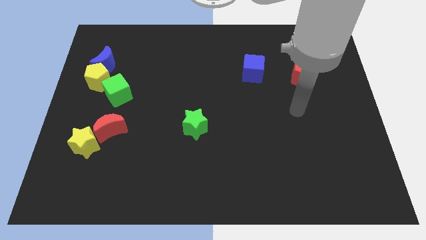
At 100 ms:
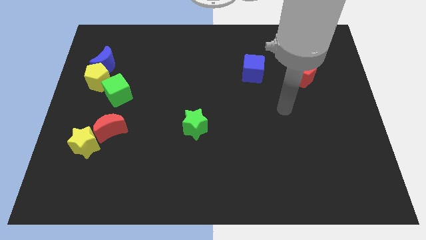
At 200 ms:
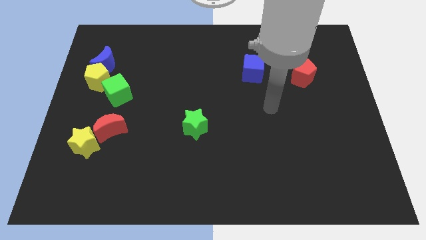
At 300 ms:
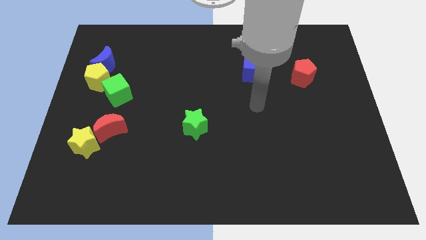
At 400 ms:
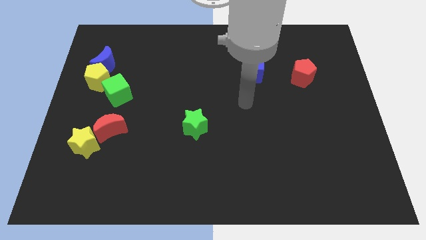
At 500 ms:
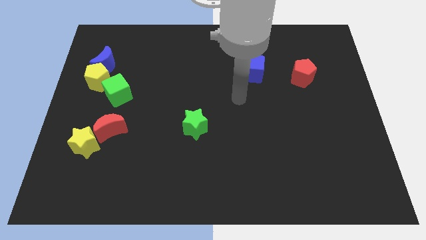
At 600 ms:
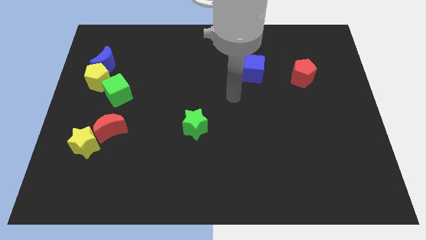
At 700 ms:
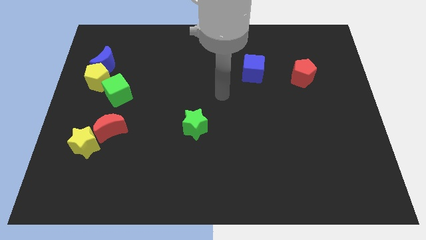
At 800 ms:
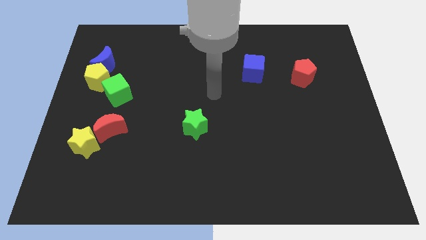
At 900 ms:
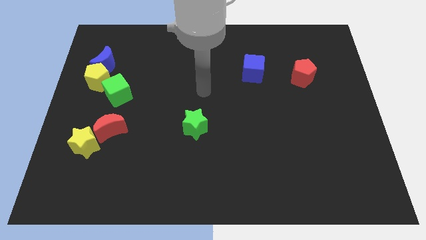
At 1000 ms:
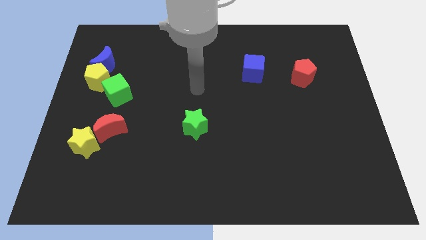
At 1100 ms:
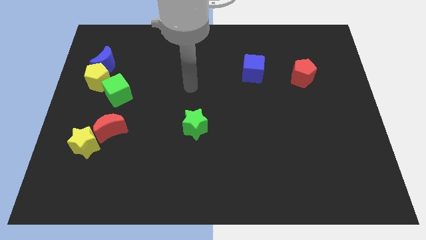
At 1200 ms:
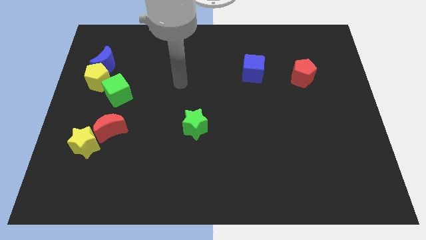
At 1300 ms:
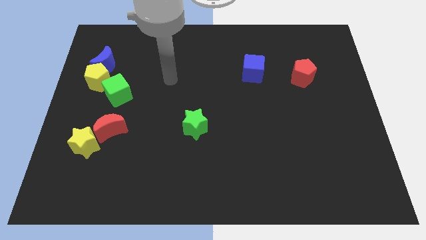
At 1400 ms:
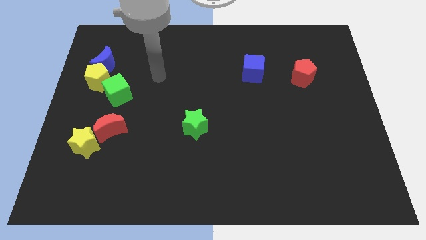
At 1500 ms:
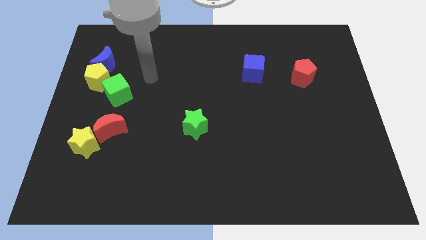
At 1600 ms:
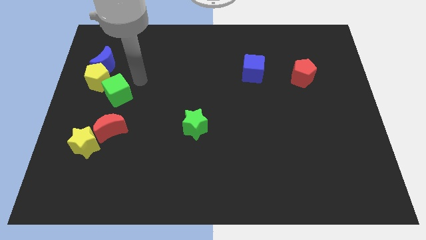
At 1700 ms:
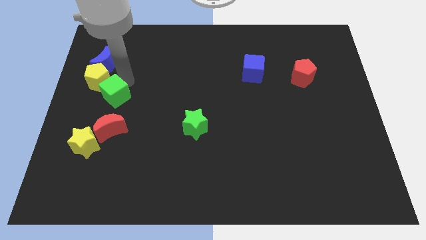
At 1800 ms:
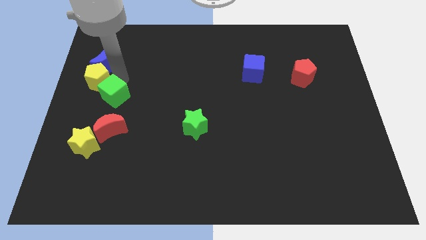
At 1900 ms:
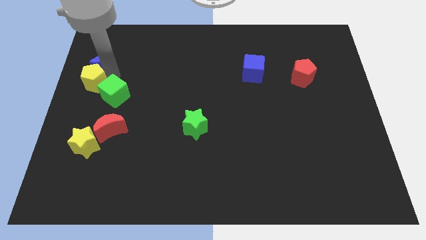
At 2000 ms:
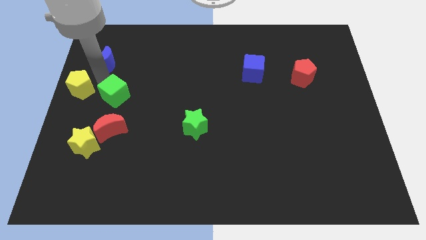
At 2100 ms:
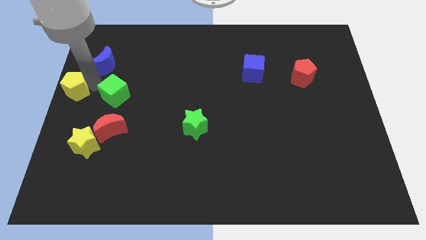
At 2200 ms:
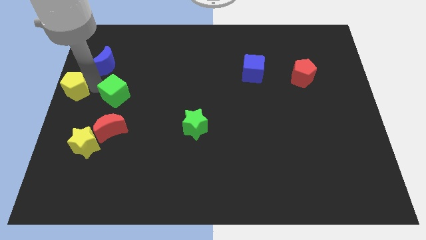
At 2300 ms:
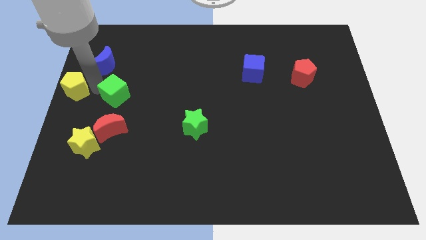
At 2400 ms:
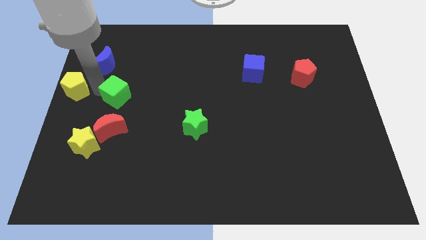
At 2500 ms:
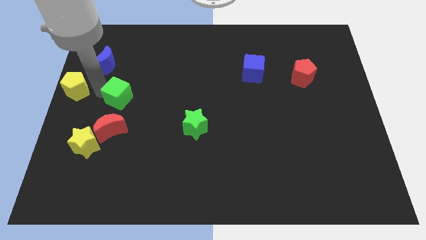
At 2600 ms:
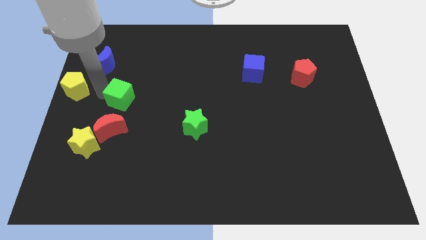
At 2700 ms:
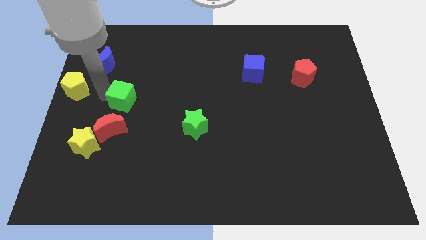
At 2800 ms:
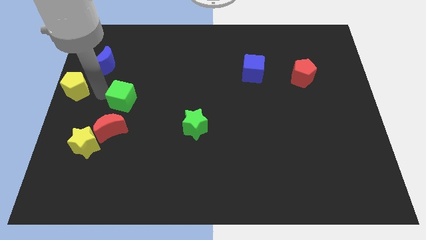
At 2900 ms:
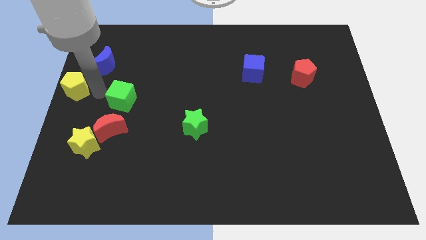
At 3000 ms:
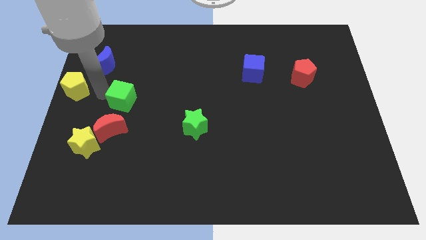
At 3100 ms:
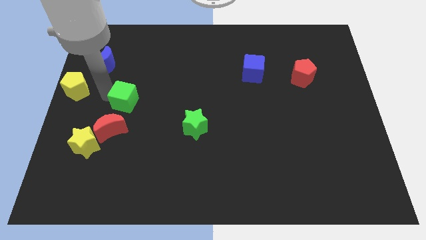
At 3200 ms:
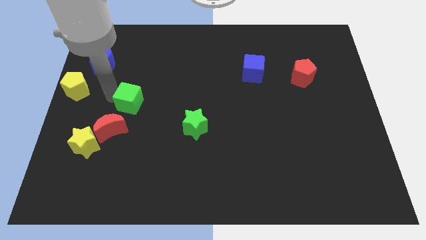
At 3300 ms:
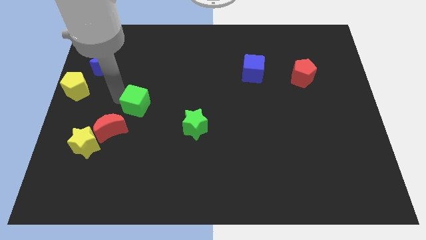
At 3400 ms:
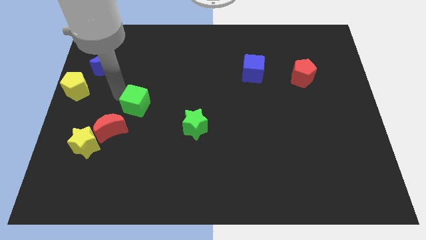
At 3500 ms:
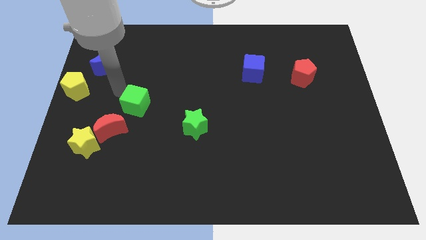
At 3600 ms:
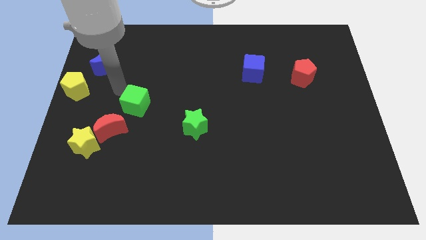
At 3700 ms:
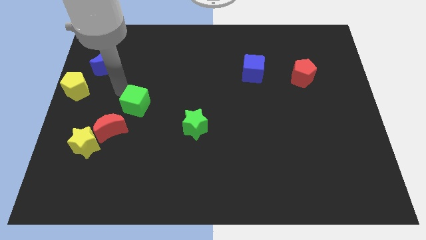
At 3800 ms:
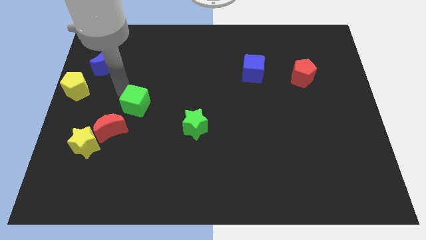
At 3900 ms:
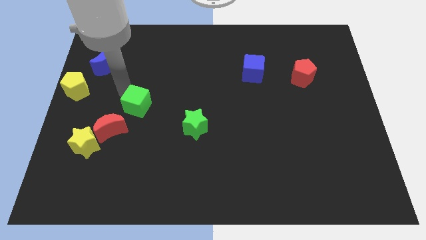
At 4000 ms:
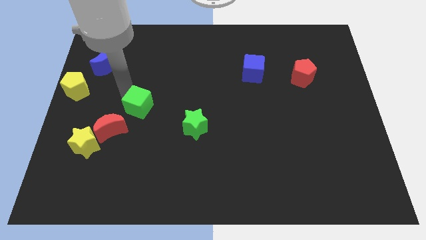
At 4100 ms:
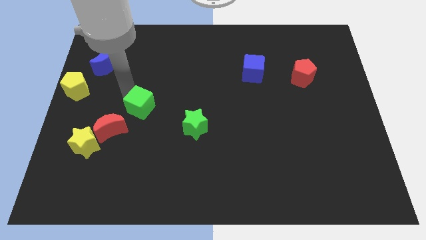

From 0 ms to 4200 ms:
slightly move the green cube downwards and right diagonally

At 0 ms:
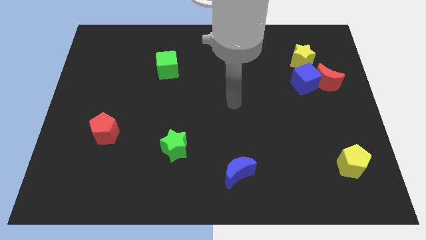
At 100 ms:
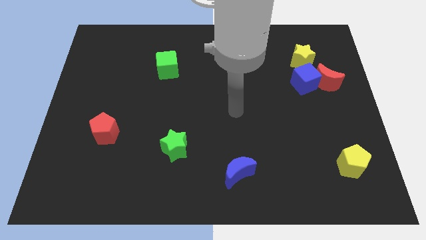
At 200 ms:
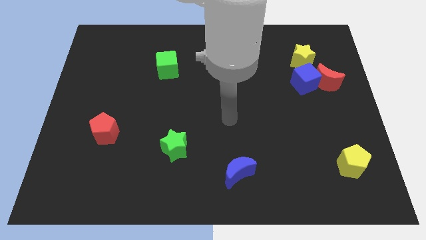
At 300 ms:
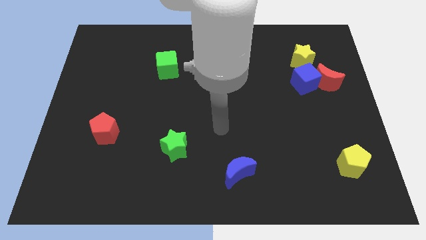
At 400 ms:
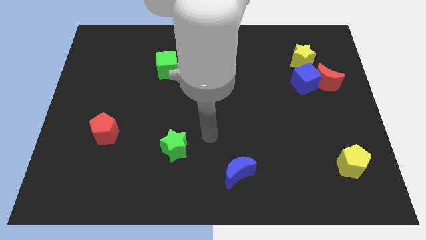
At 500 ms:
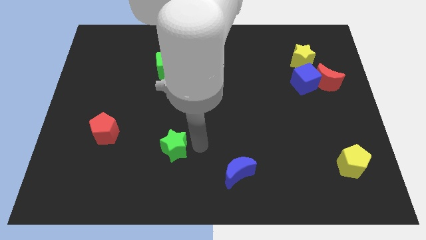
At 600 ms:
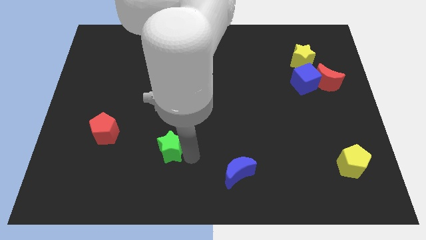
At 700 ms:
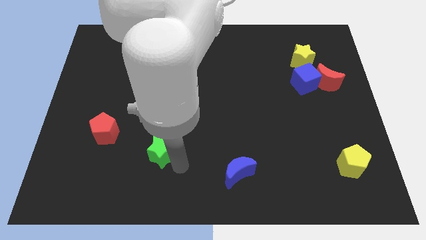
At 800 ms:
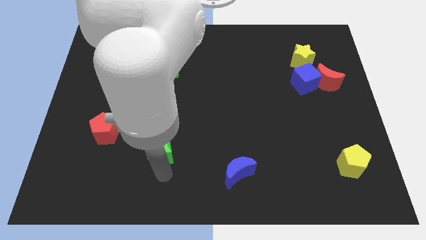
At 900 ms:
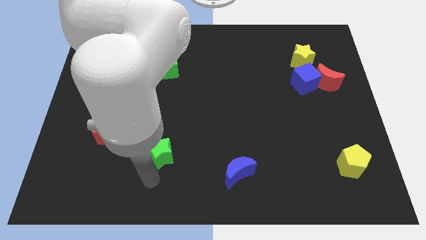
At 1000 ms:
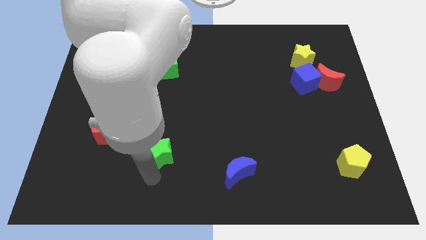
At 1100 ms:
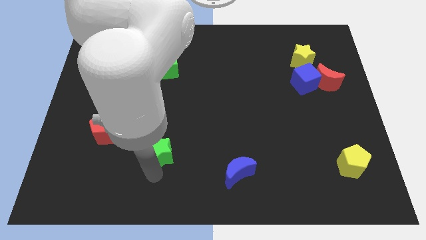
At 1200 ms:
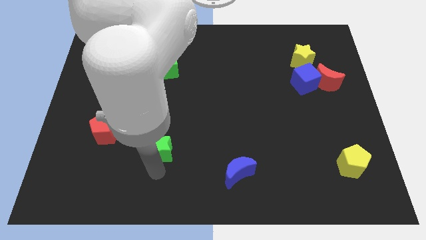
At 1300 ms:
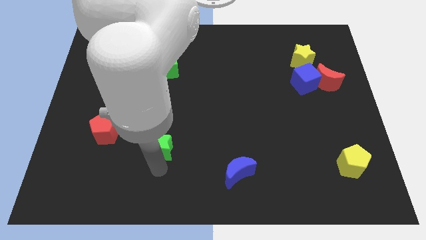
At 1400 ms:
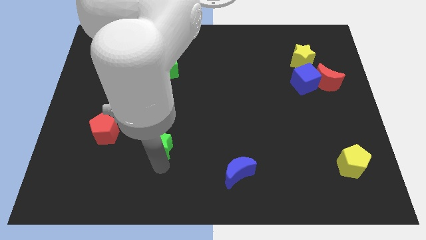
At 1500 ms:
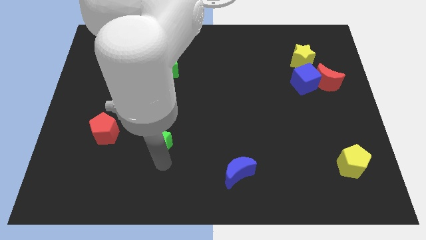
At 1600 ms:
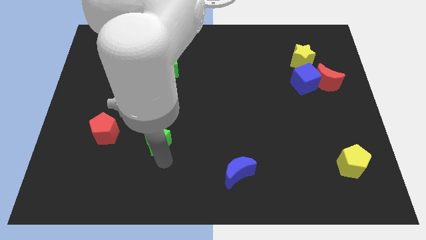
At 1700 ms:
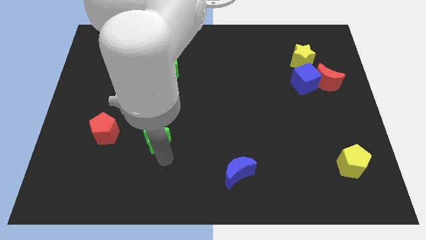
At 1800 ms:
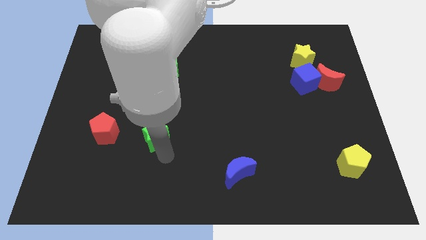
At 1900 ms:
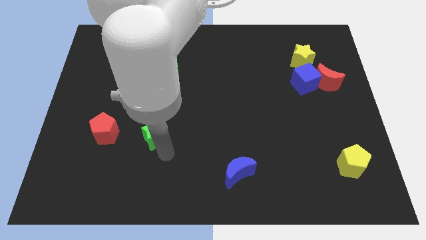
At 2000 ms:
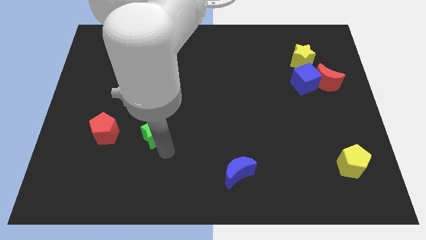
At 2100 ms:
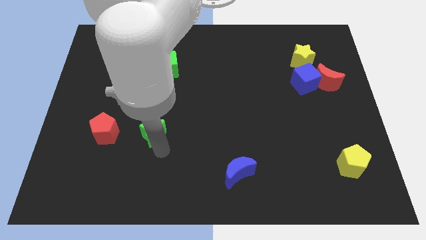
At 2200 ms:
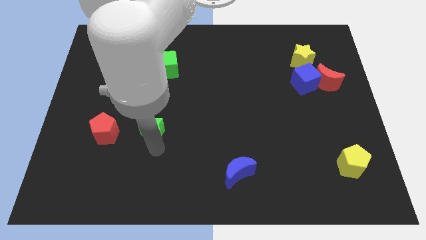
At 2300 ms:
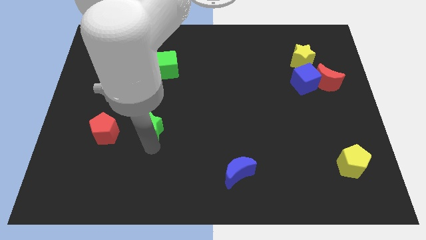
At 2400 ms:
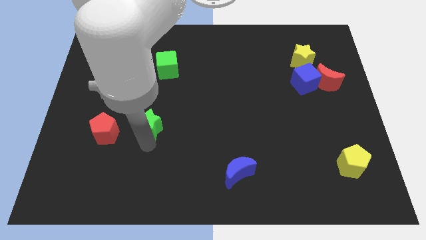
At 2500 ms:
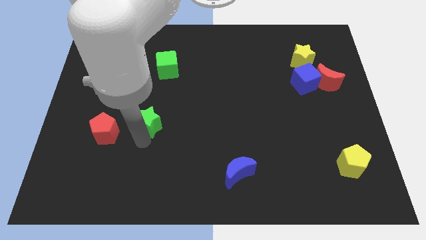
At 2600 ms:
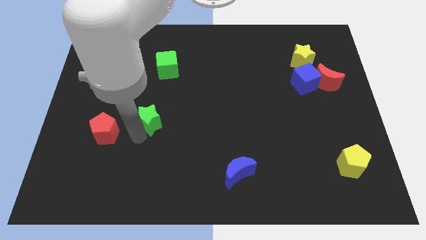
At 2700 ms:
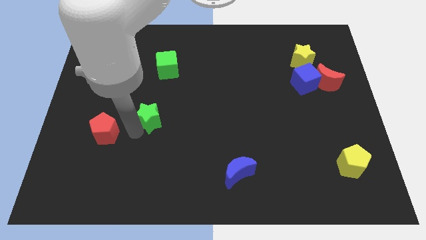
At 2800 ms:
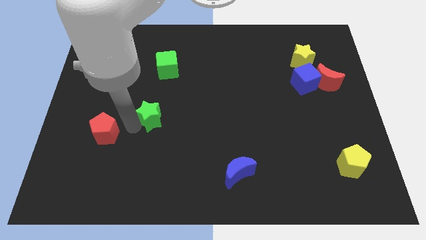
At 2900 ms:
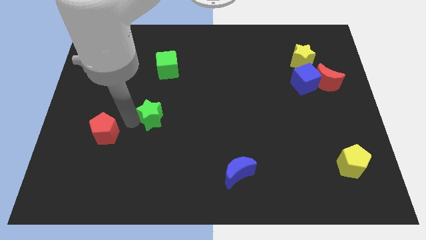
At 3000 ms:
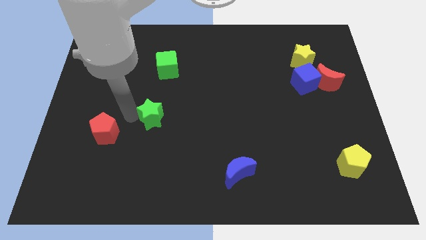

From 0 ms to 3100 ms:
push the green star slightly up

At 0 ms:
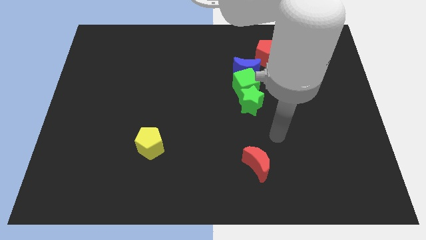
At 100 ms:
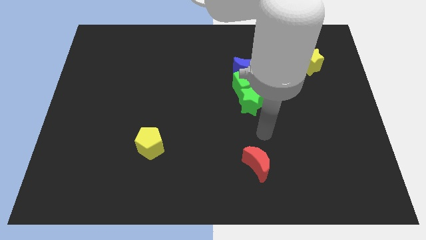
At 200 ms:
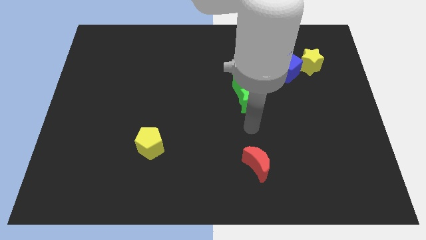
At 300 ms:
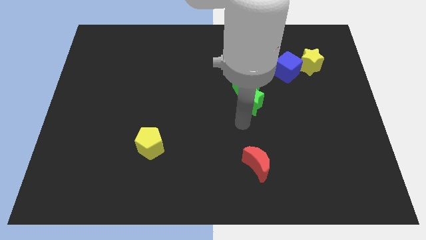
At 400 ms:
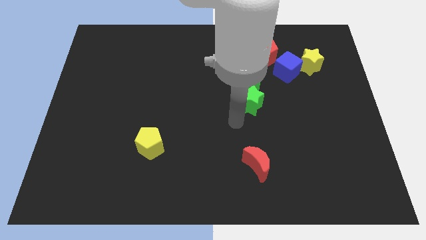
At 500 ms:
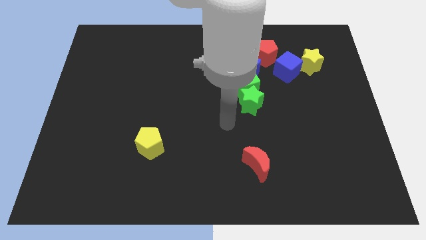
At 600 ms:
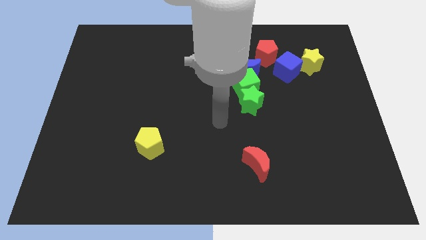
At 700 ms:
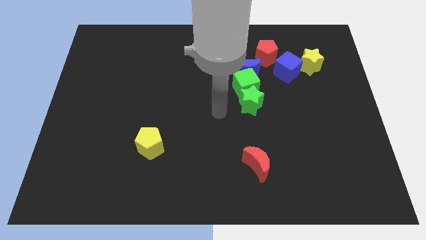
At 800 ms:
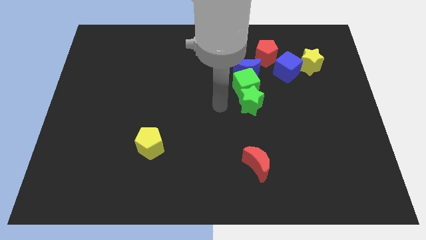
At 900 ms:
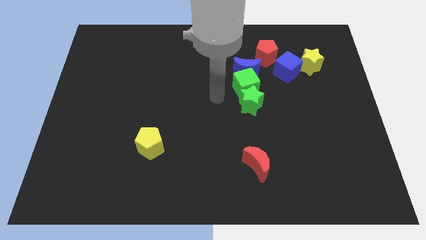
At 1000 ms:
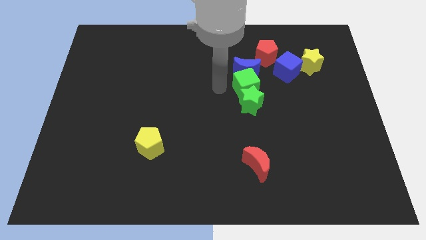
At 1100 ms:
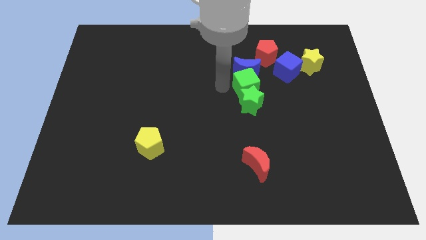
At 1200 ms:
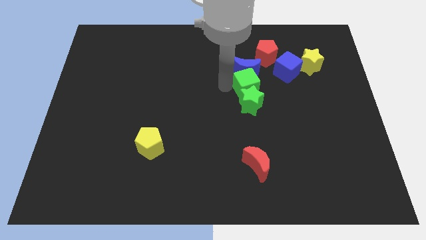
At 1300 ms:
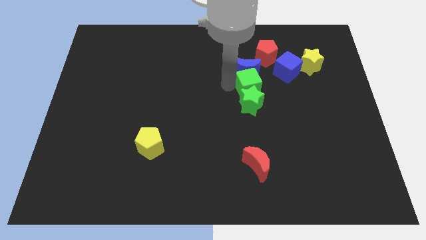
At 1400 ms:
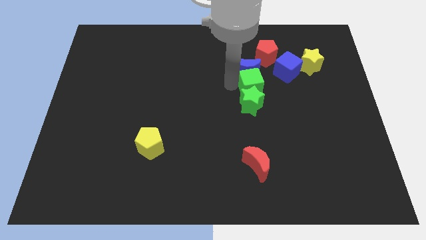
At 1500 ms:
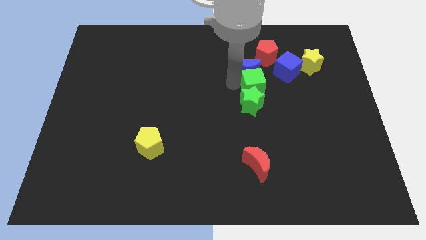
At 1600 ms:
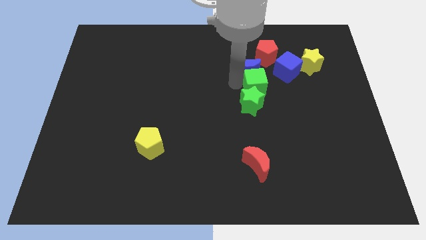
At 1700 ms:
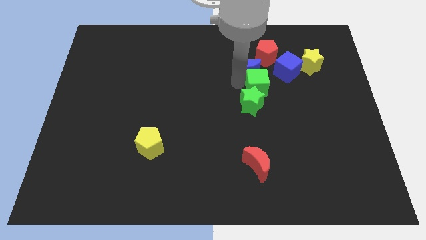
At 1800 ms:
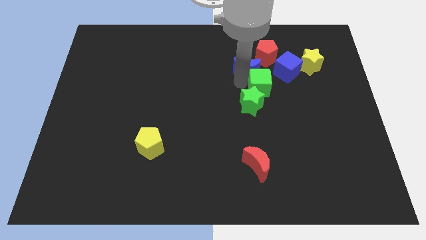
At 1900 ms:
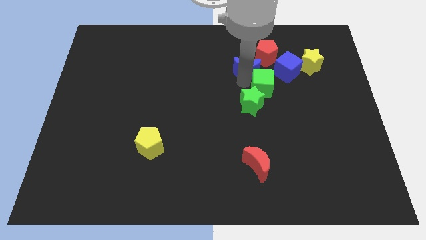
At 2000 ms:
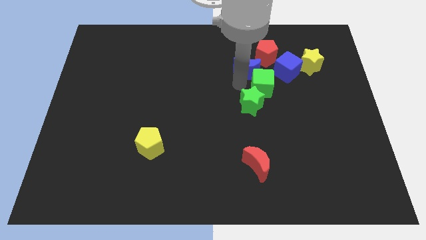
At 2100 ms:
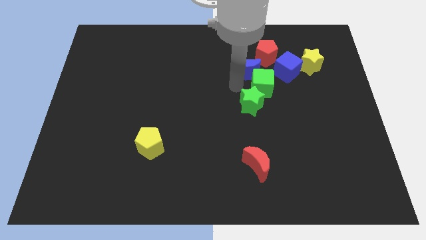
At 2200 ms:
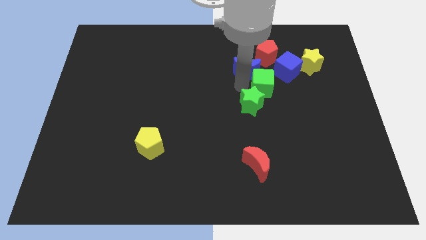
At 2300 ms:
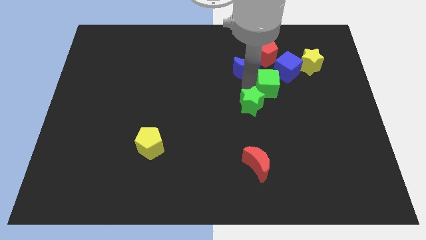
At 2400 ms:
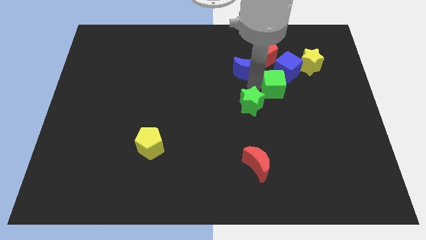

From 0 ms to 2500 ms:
slide the green cube to the right a little
